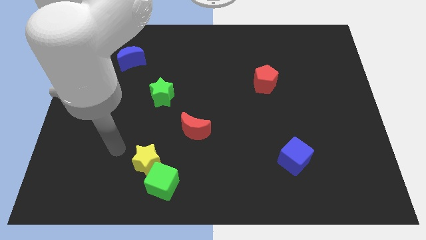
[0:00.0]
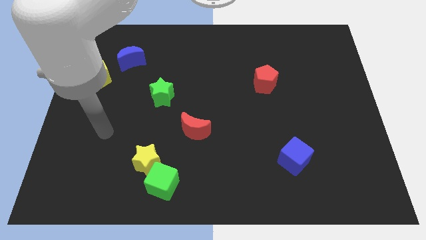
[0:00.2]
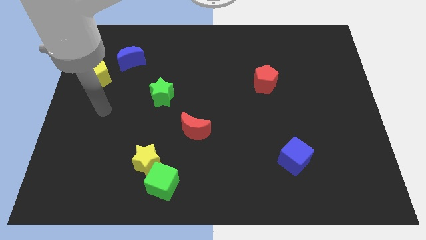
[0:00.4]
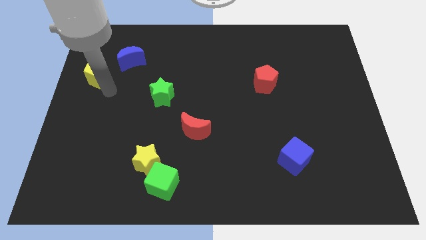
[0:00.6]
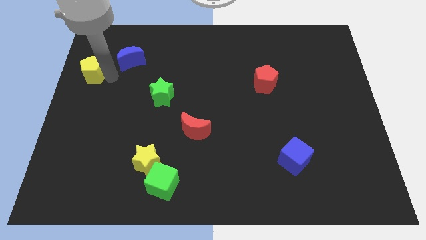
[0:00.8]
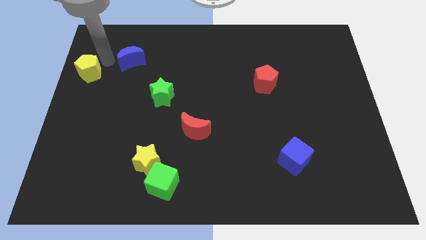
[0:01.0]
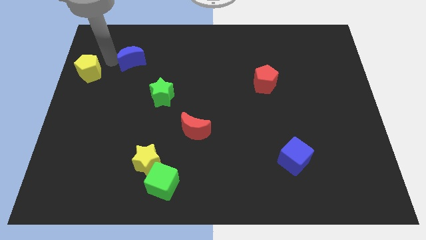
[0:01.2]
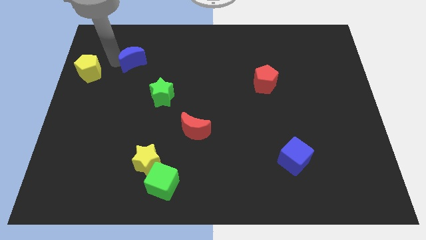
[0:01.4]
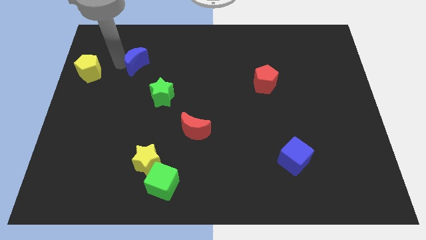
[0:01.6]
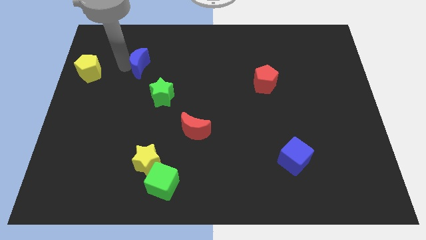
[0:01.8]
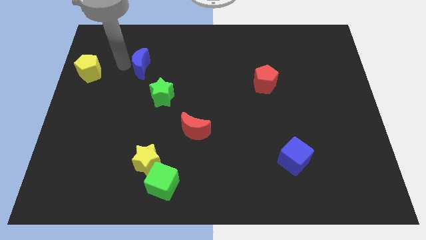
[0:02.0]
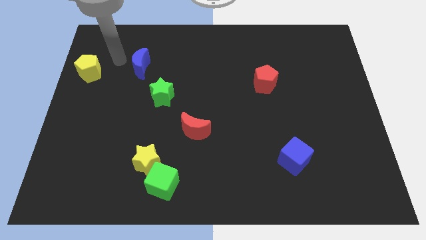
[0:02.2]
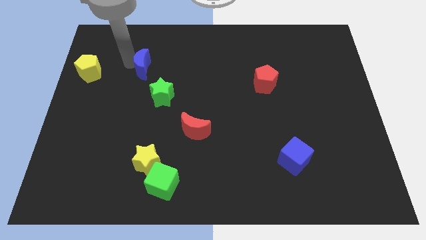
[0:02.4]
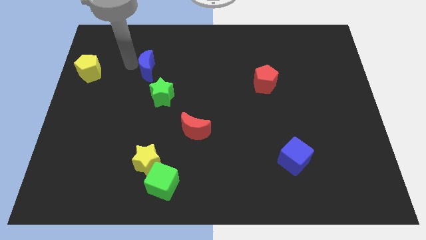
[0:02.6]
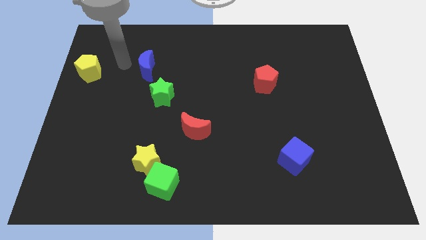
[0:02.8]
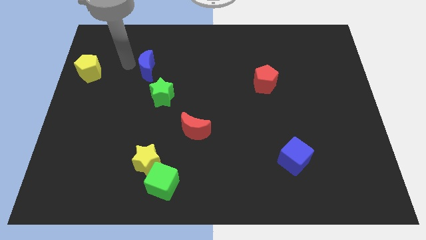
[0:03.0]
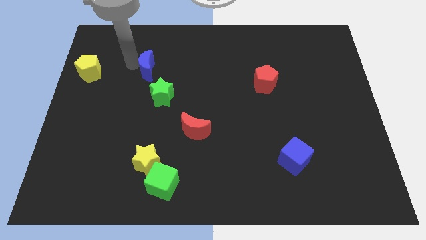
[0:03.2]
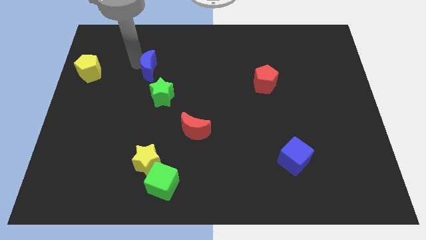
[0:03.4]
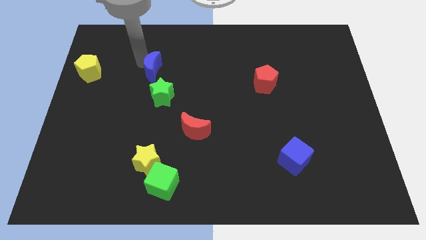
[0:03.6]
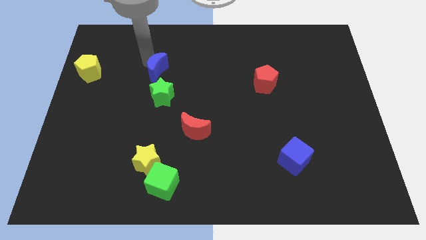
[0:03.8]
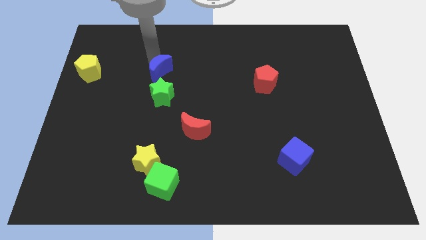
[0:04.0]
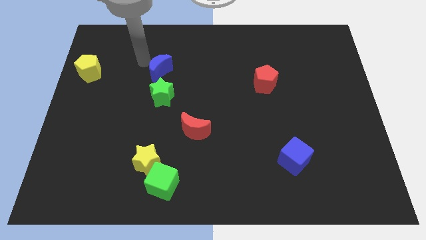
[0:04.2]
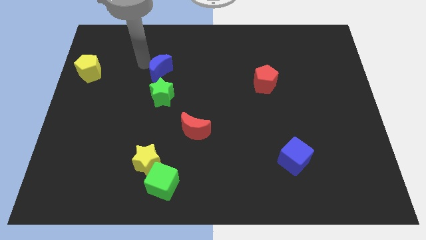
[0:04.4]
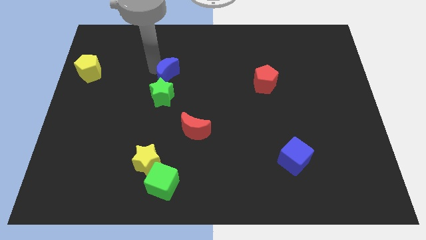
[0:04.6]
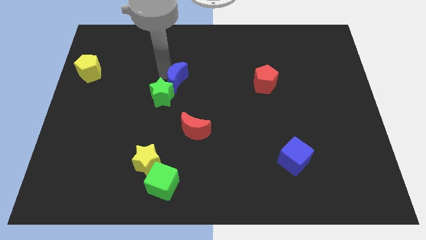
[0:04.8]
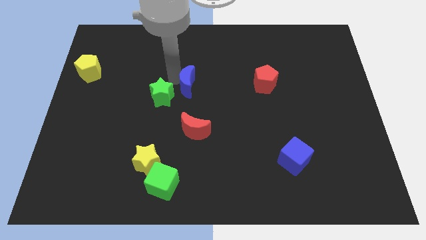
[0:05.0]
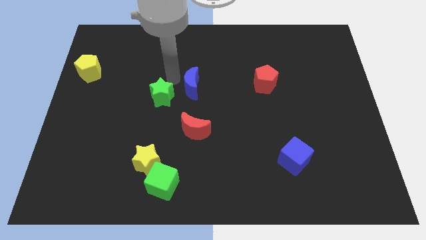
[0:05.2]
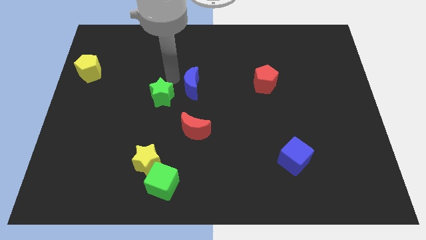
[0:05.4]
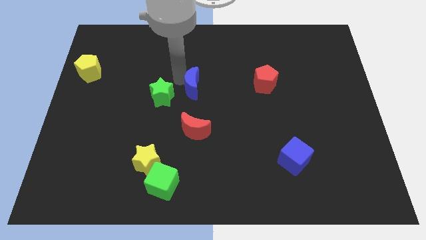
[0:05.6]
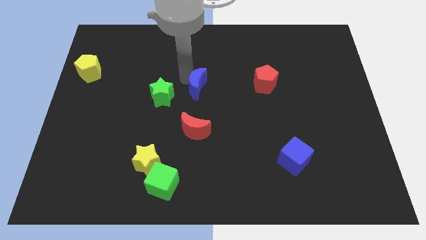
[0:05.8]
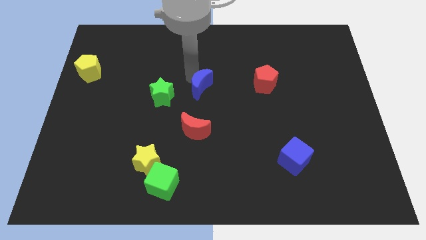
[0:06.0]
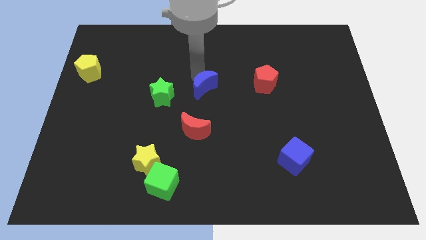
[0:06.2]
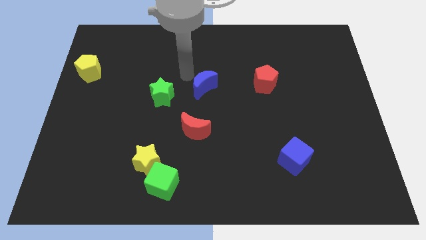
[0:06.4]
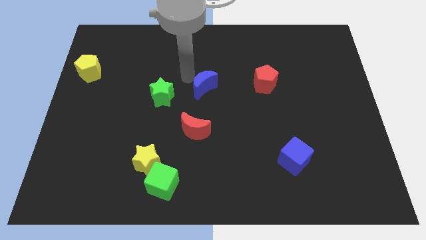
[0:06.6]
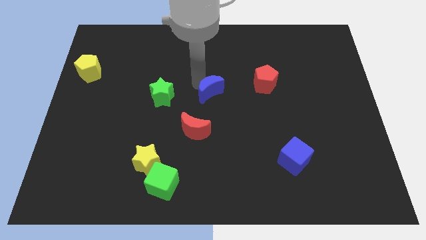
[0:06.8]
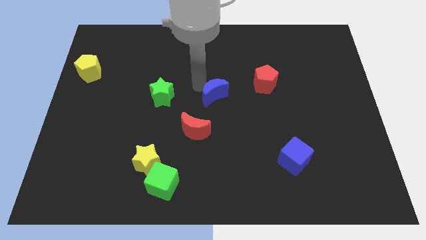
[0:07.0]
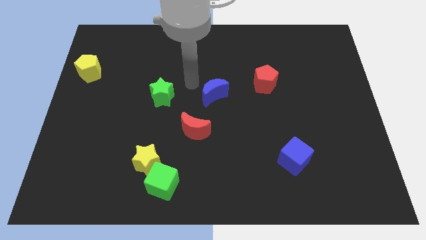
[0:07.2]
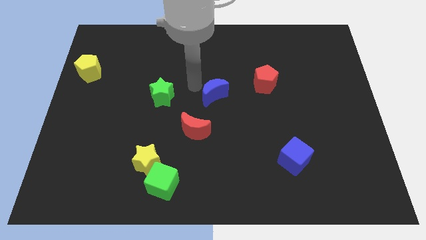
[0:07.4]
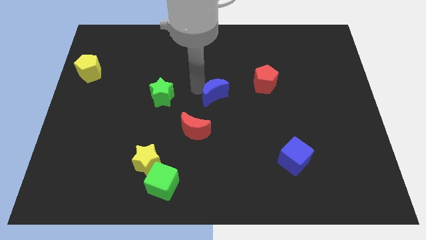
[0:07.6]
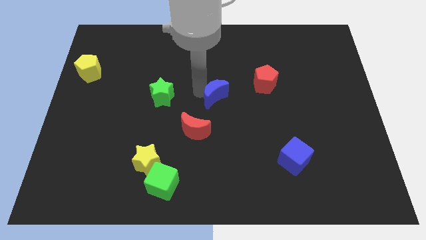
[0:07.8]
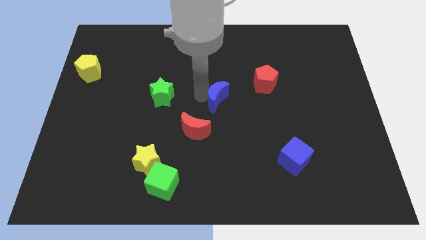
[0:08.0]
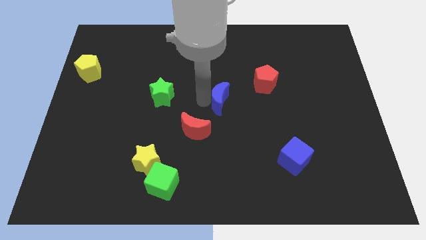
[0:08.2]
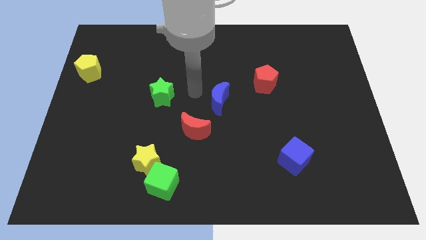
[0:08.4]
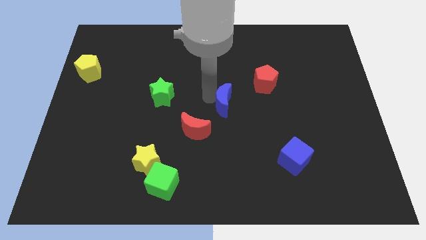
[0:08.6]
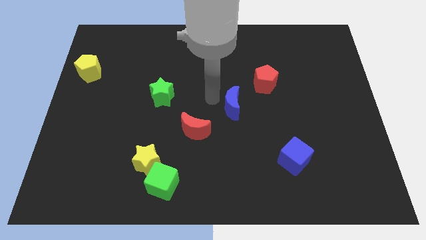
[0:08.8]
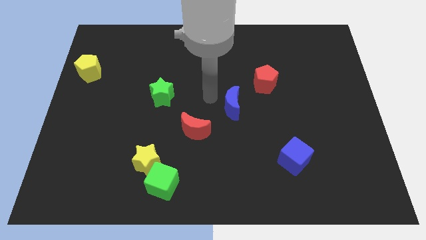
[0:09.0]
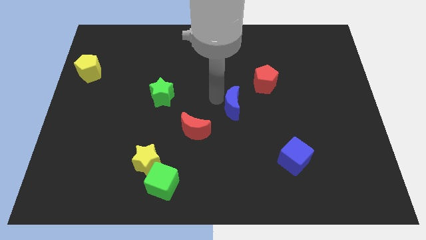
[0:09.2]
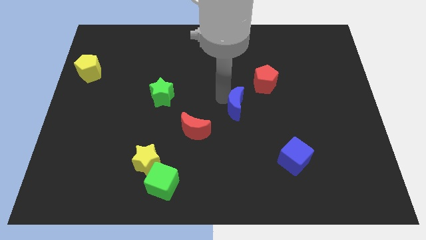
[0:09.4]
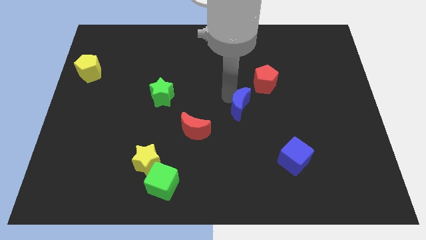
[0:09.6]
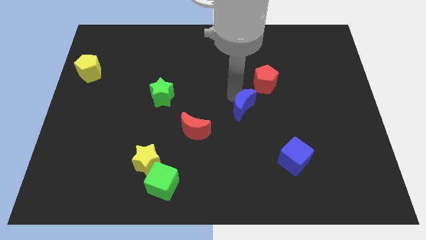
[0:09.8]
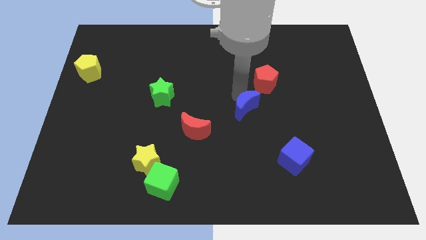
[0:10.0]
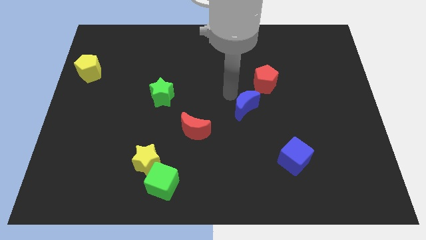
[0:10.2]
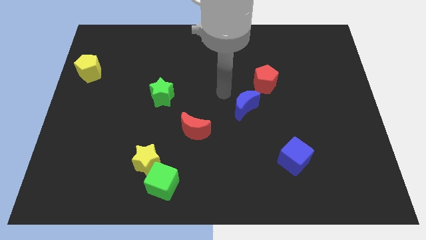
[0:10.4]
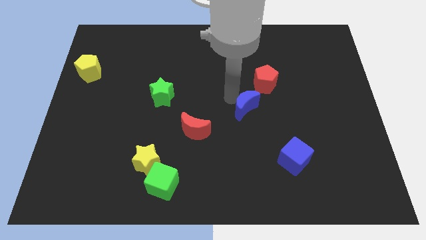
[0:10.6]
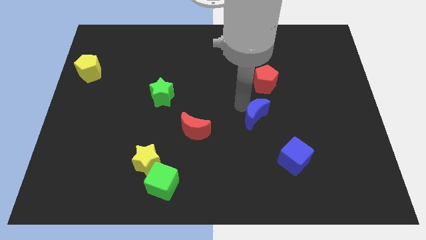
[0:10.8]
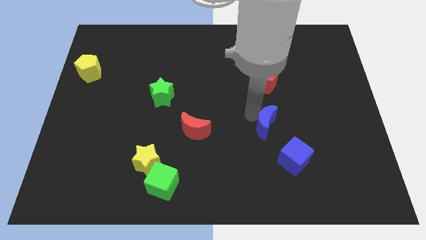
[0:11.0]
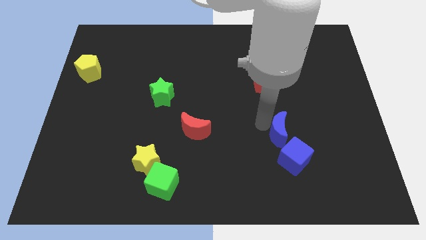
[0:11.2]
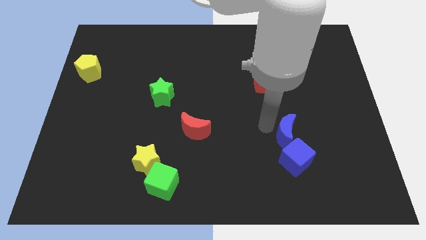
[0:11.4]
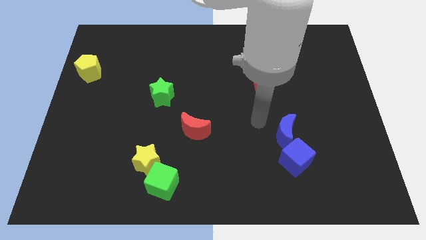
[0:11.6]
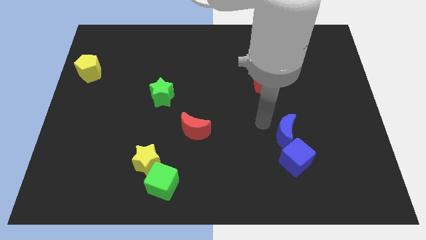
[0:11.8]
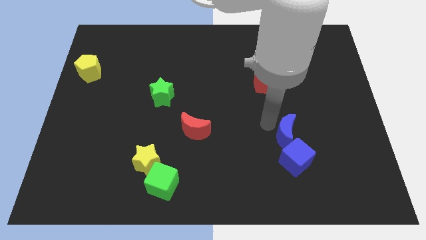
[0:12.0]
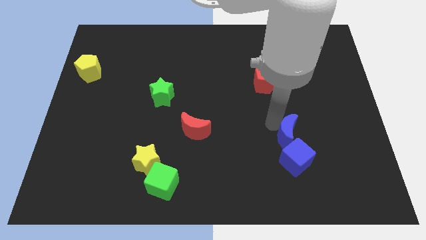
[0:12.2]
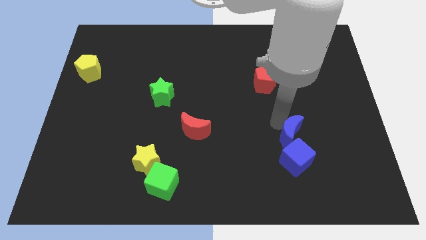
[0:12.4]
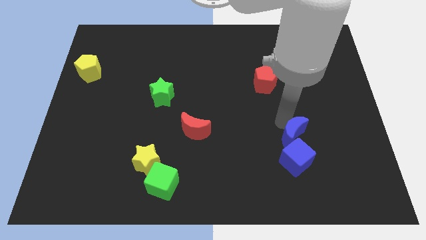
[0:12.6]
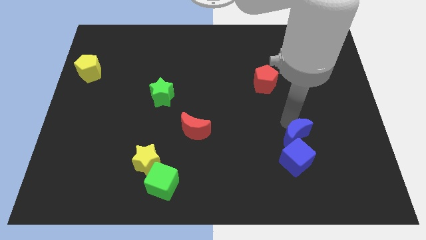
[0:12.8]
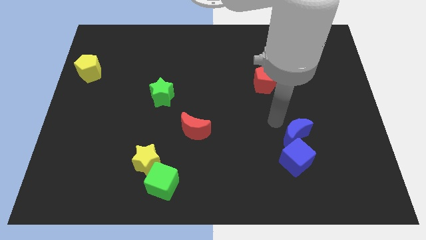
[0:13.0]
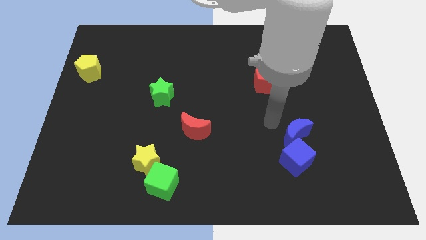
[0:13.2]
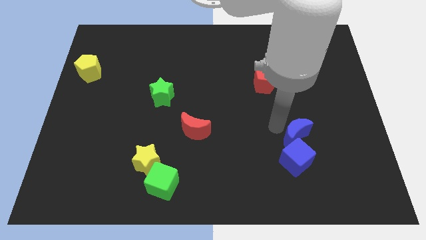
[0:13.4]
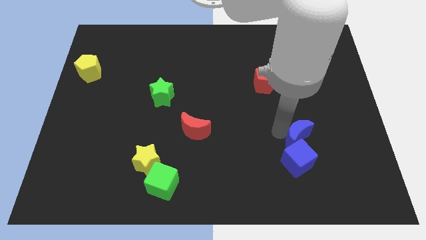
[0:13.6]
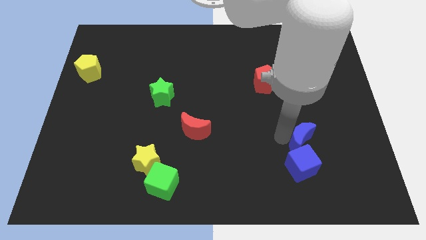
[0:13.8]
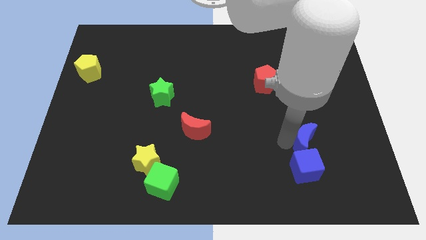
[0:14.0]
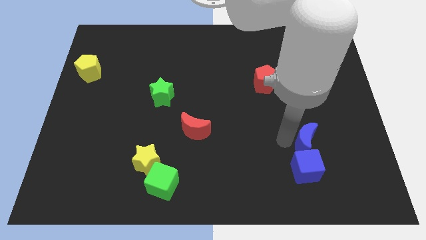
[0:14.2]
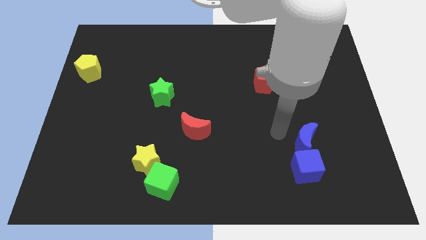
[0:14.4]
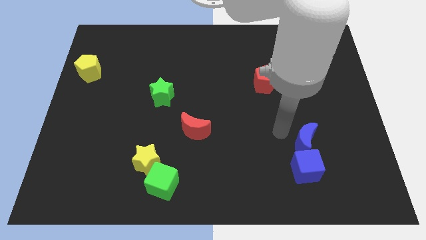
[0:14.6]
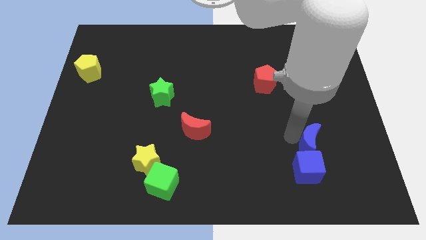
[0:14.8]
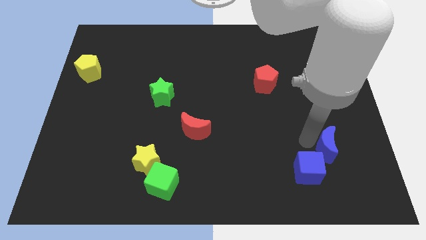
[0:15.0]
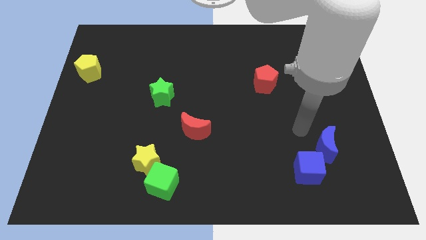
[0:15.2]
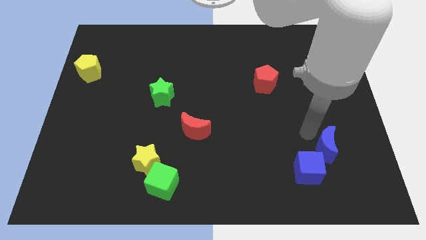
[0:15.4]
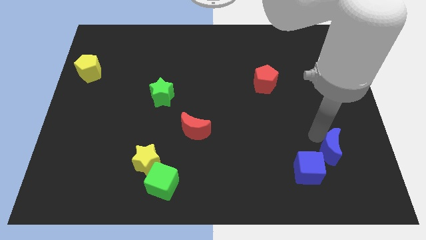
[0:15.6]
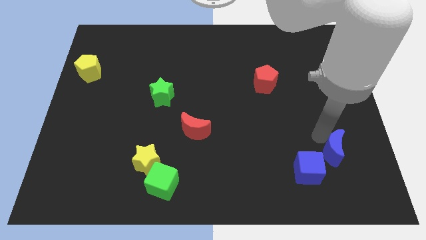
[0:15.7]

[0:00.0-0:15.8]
slide the blue moon right of the blue cube
